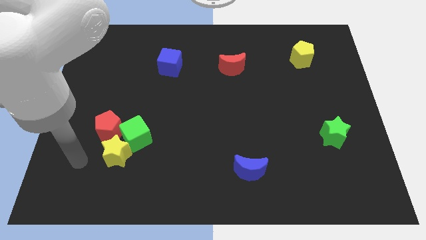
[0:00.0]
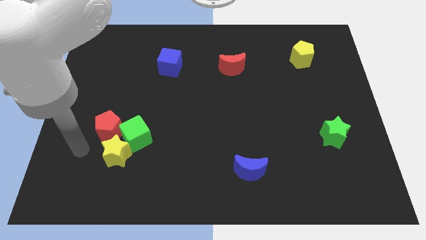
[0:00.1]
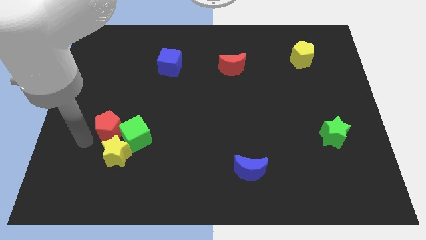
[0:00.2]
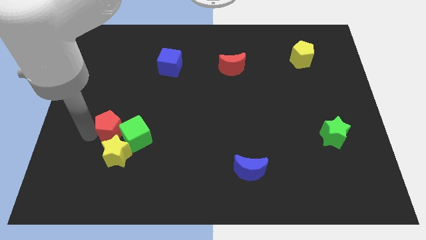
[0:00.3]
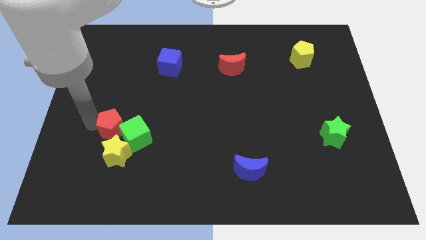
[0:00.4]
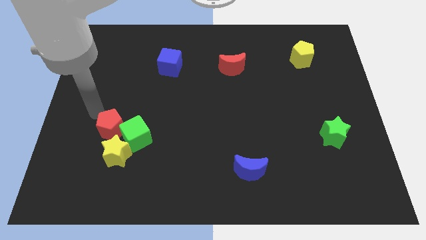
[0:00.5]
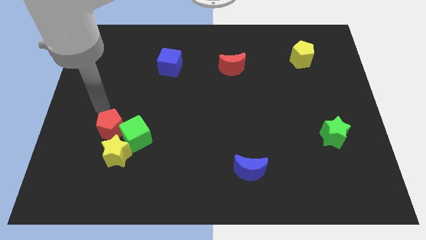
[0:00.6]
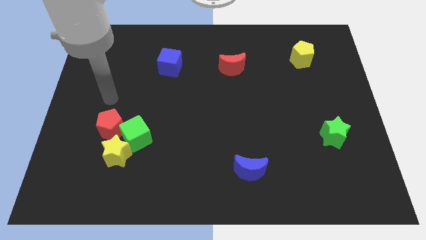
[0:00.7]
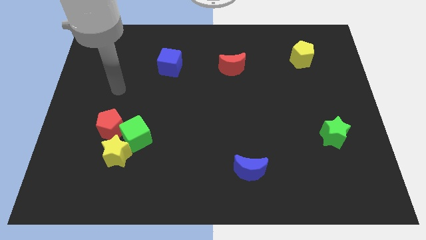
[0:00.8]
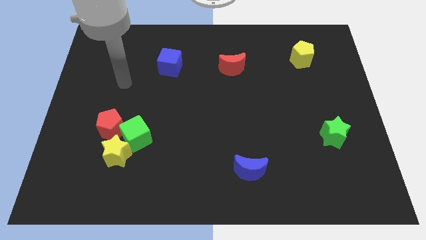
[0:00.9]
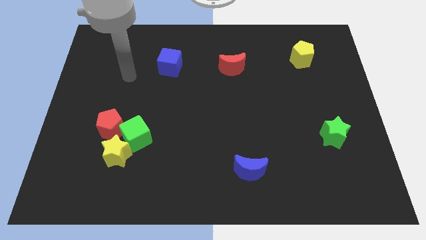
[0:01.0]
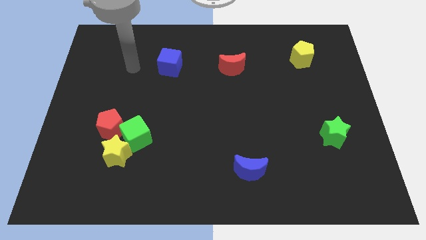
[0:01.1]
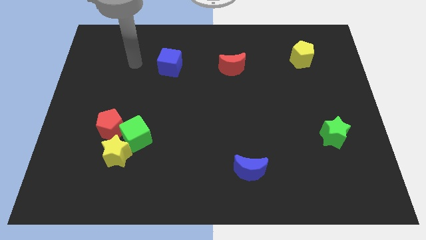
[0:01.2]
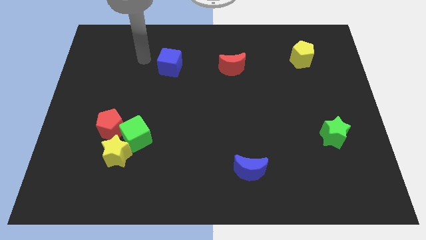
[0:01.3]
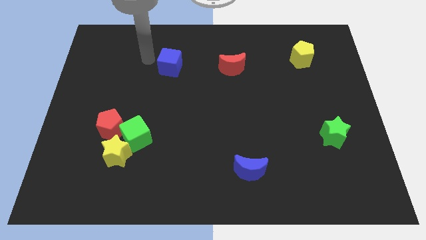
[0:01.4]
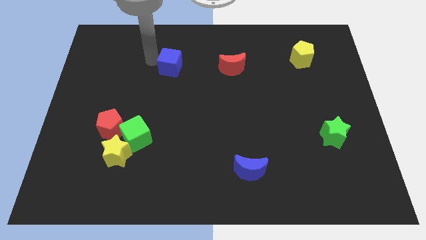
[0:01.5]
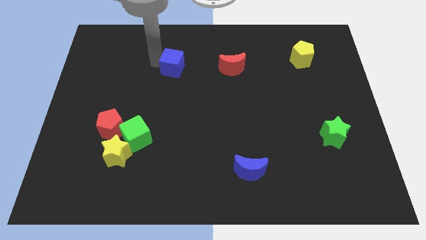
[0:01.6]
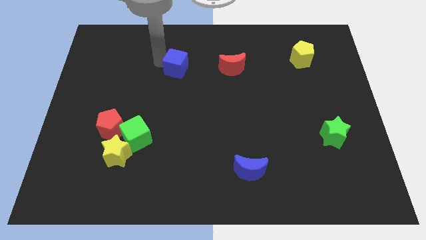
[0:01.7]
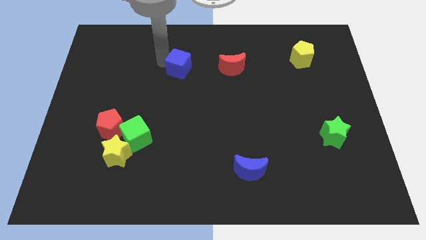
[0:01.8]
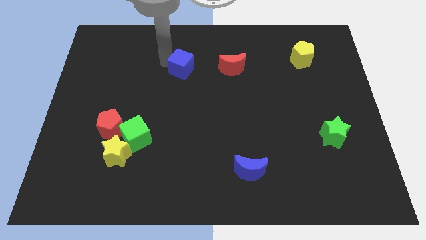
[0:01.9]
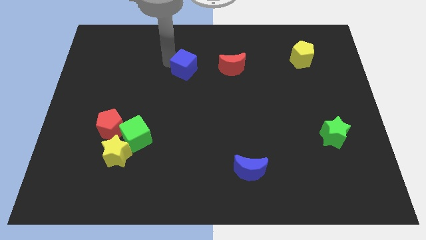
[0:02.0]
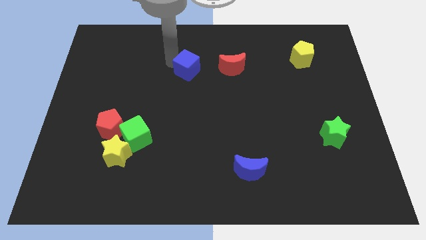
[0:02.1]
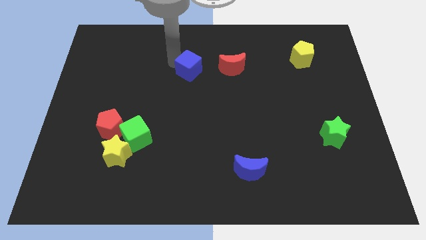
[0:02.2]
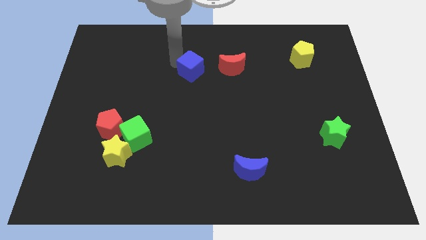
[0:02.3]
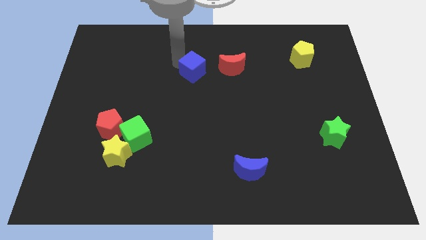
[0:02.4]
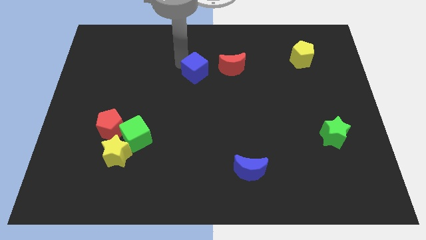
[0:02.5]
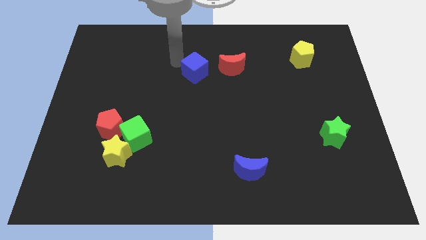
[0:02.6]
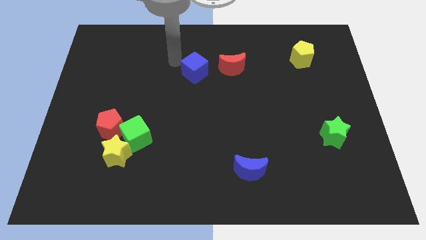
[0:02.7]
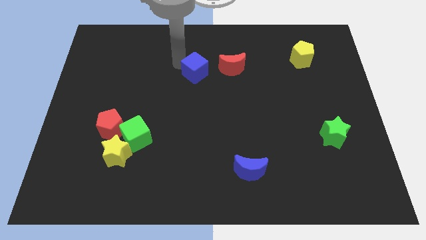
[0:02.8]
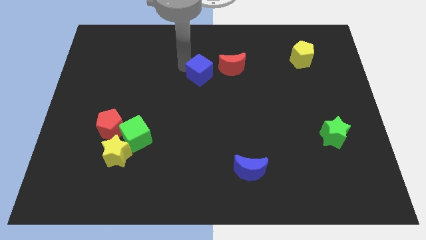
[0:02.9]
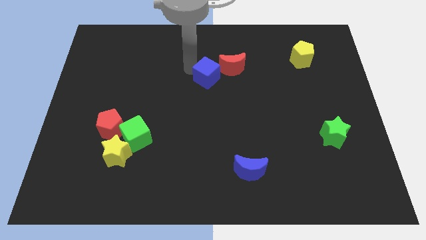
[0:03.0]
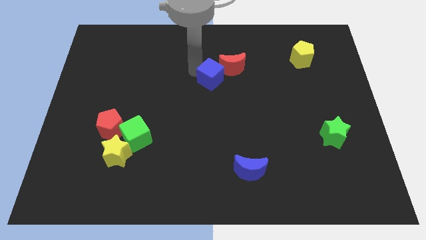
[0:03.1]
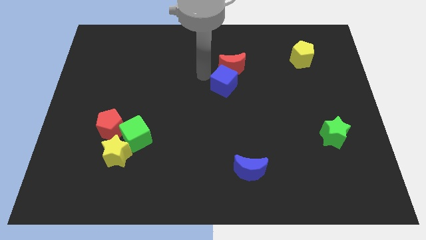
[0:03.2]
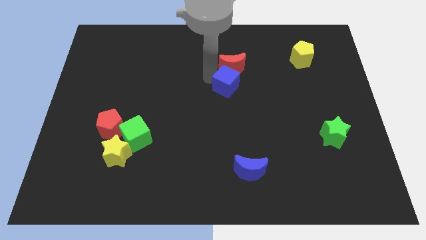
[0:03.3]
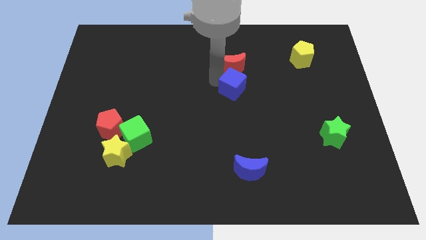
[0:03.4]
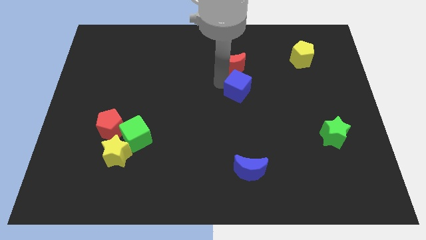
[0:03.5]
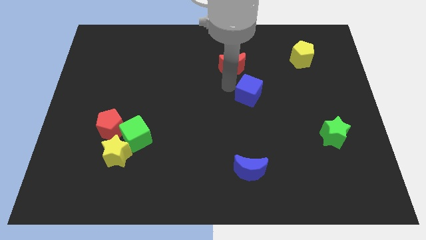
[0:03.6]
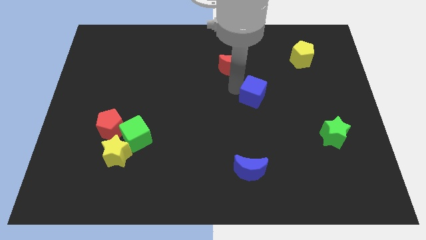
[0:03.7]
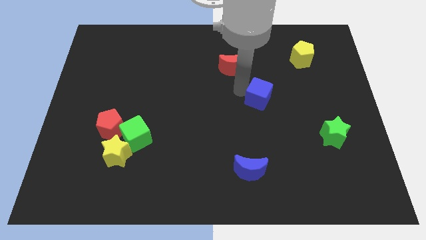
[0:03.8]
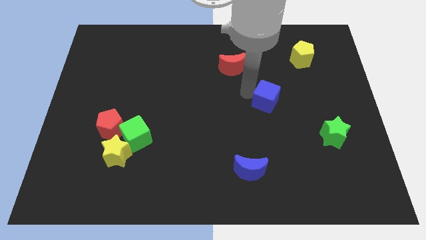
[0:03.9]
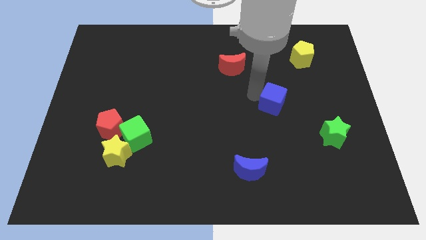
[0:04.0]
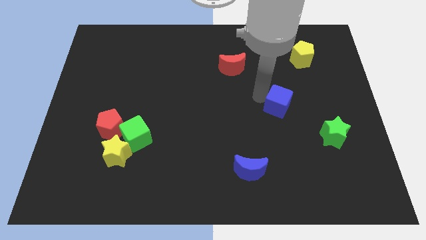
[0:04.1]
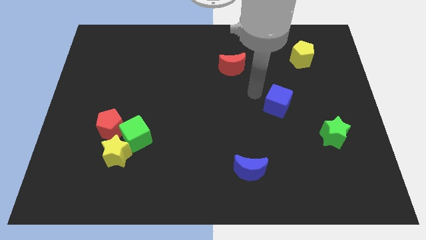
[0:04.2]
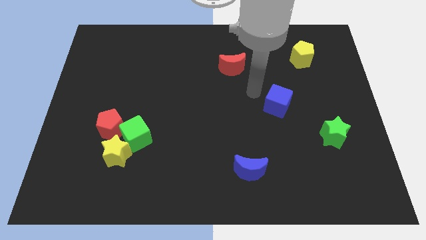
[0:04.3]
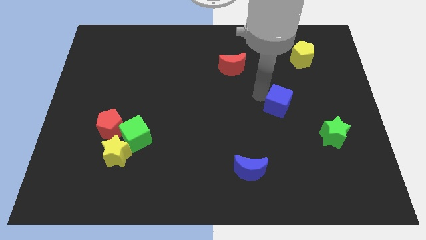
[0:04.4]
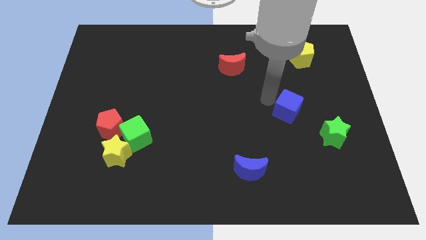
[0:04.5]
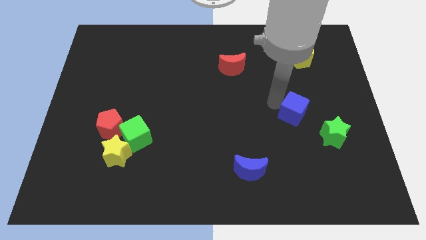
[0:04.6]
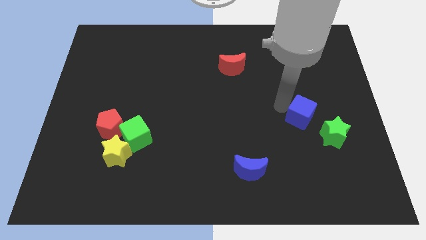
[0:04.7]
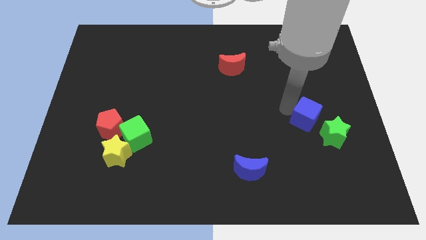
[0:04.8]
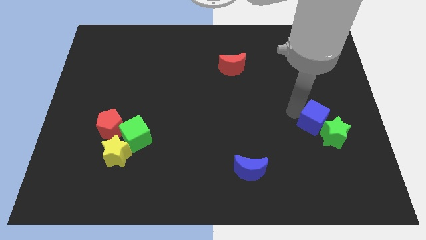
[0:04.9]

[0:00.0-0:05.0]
move the blue cube to the green star

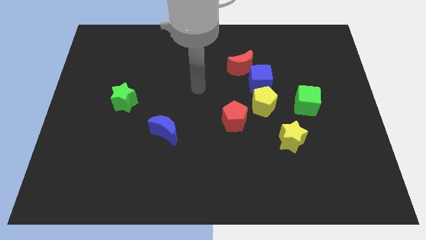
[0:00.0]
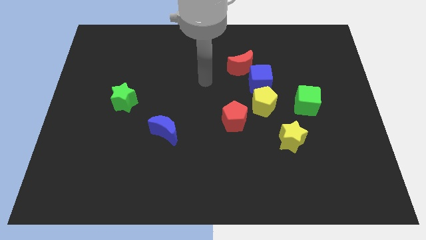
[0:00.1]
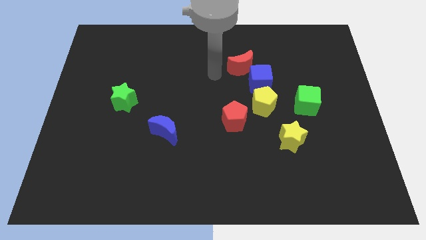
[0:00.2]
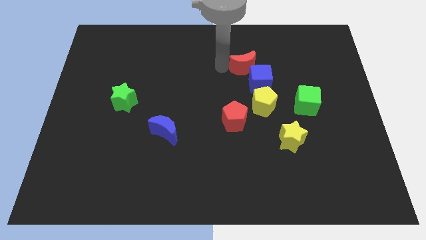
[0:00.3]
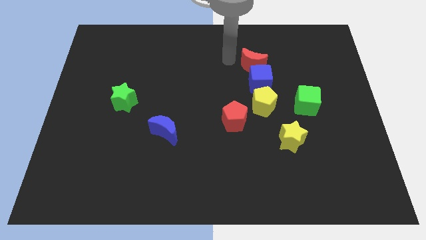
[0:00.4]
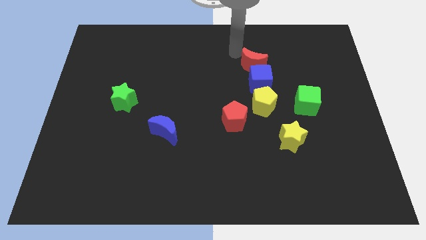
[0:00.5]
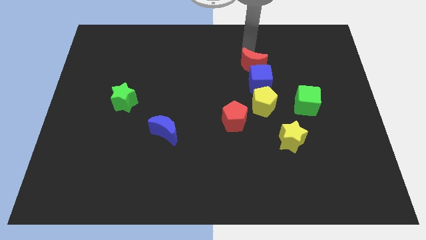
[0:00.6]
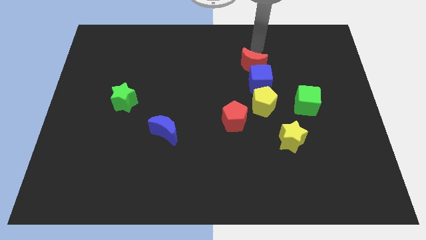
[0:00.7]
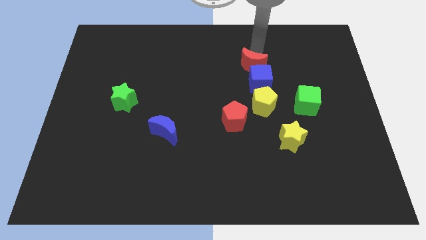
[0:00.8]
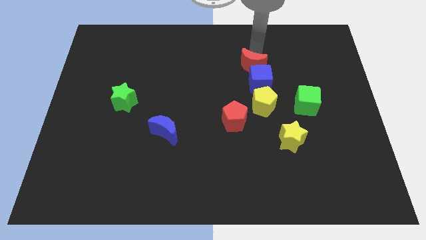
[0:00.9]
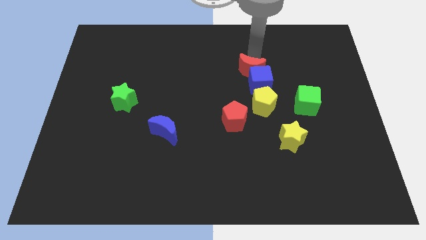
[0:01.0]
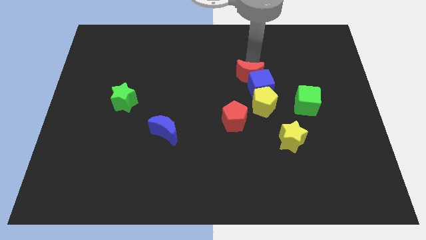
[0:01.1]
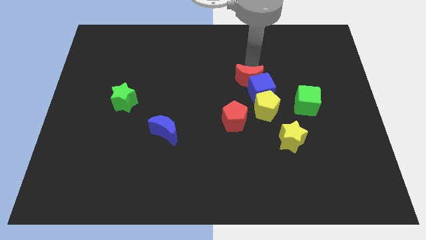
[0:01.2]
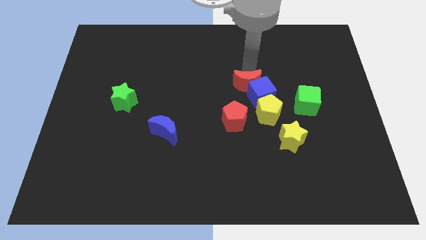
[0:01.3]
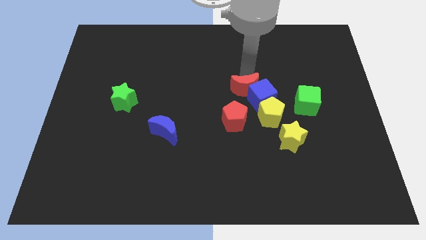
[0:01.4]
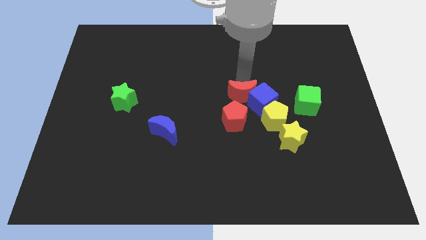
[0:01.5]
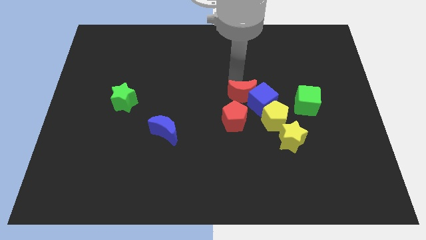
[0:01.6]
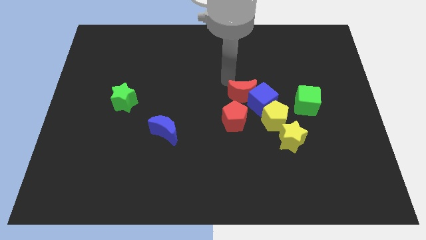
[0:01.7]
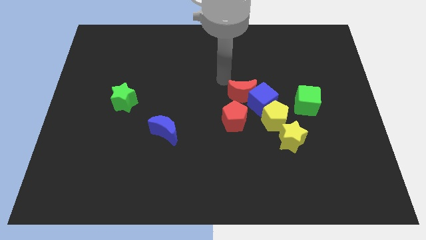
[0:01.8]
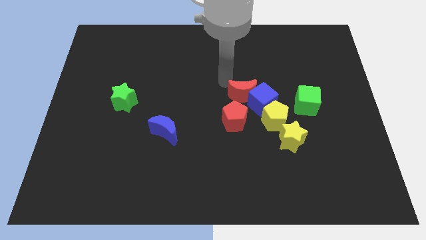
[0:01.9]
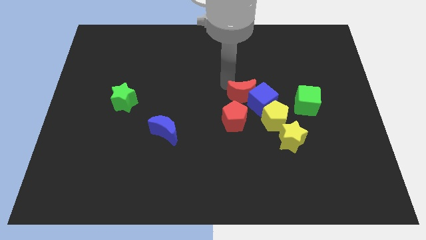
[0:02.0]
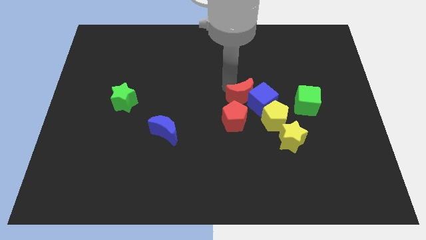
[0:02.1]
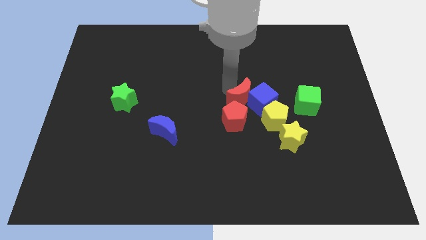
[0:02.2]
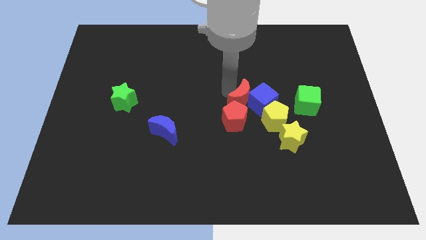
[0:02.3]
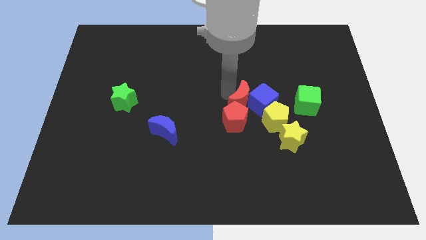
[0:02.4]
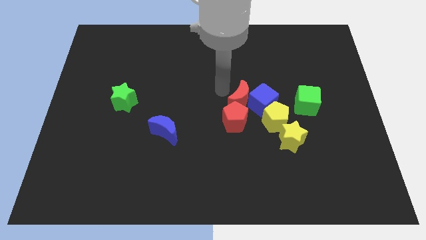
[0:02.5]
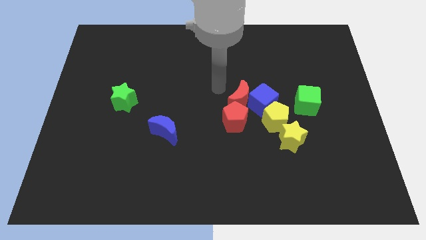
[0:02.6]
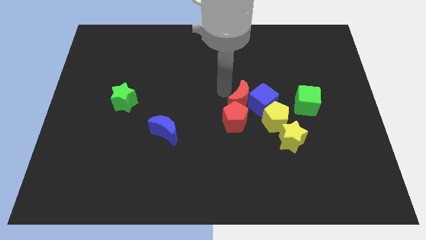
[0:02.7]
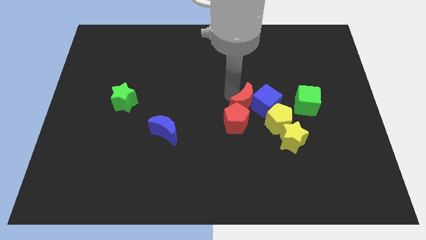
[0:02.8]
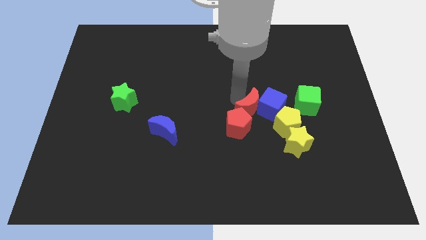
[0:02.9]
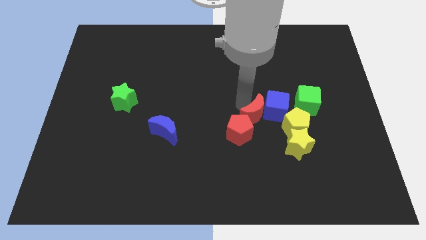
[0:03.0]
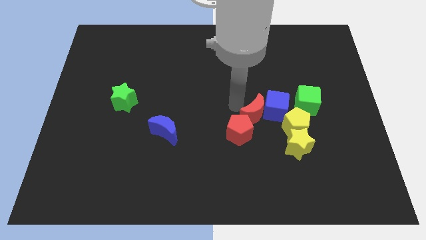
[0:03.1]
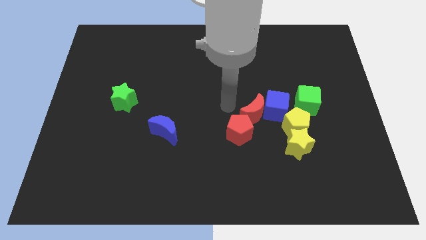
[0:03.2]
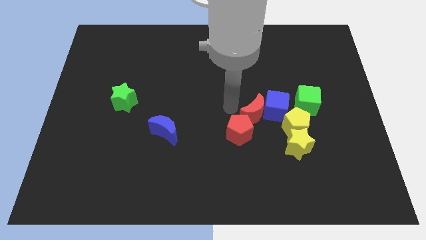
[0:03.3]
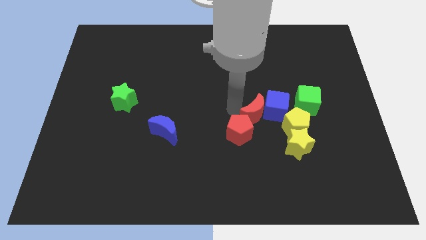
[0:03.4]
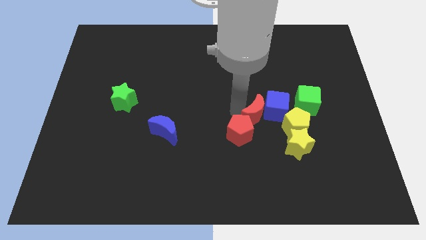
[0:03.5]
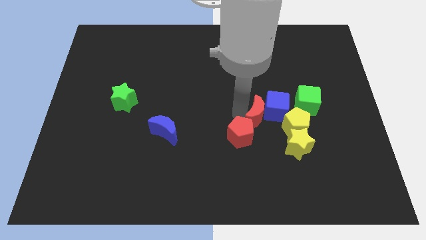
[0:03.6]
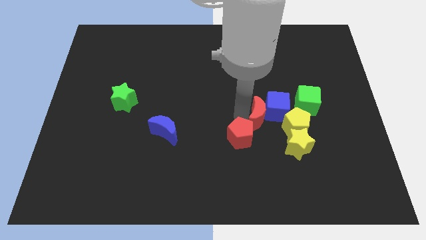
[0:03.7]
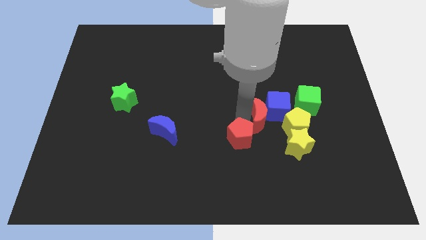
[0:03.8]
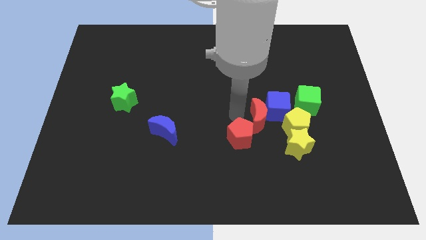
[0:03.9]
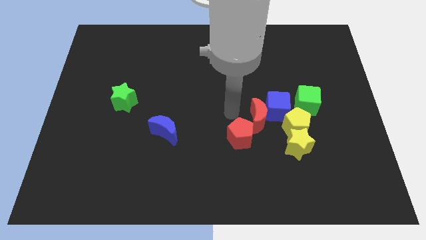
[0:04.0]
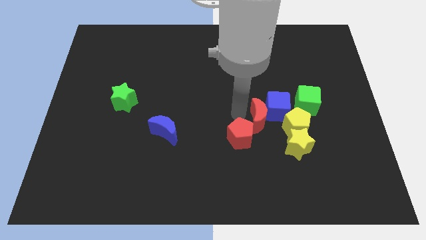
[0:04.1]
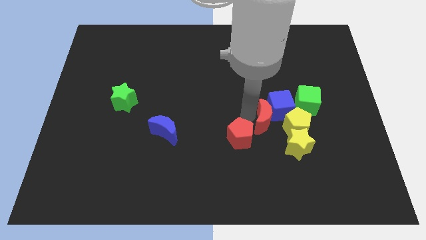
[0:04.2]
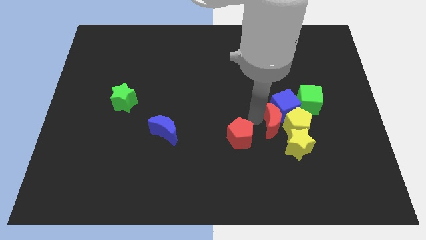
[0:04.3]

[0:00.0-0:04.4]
put the red moon next to the yellow pentagon
